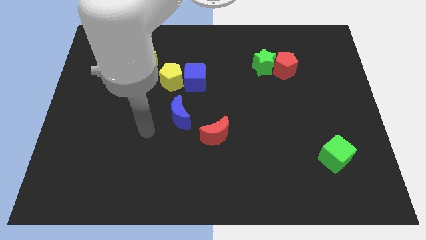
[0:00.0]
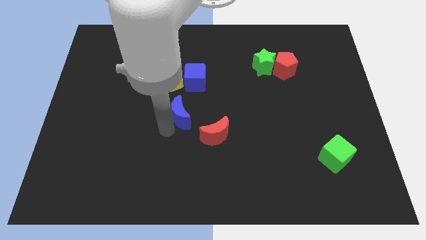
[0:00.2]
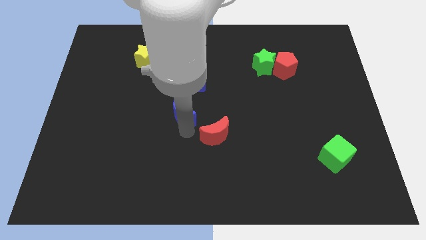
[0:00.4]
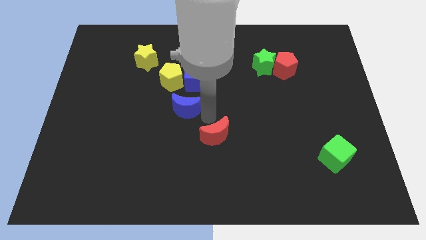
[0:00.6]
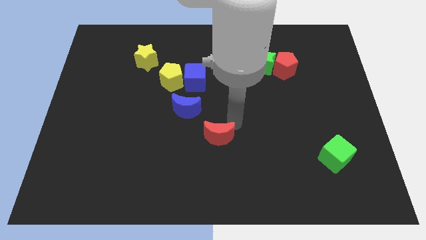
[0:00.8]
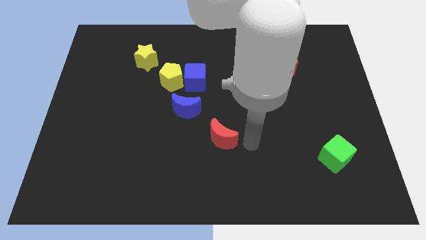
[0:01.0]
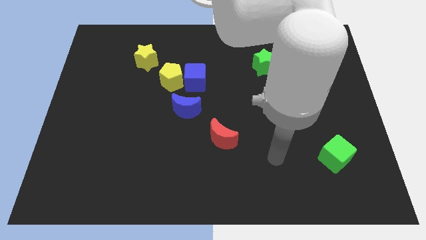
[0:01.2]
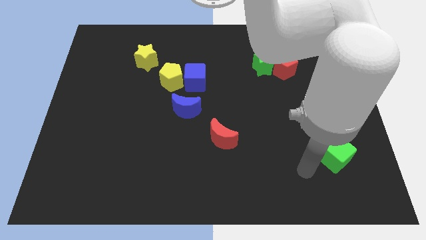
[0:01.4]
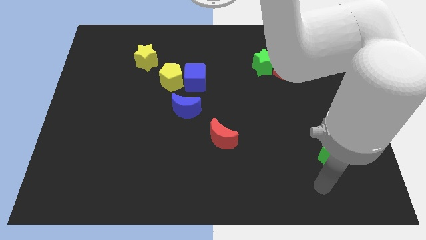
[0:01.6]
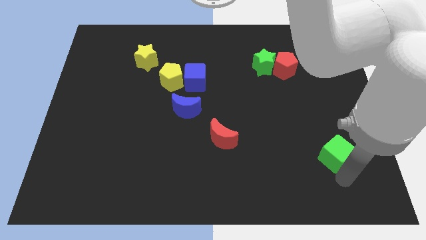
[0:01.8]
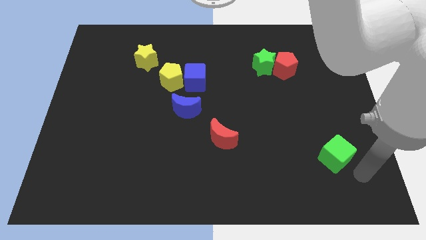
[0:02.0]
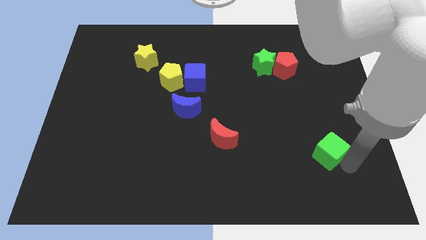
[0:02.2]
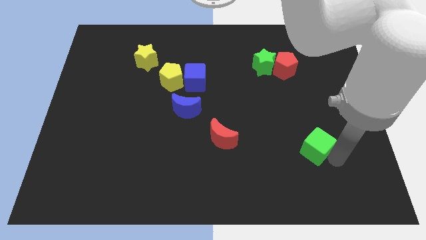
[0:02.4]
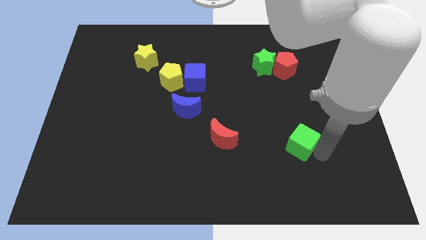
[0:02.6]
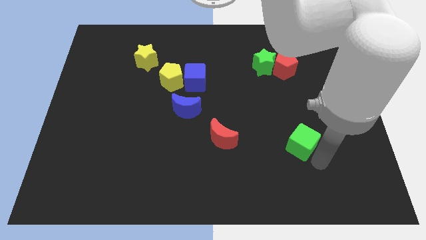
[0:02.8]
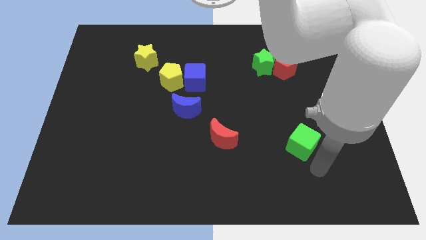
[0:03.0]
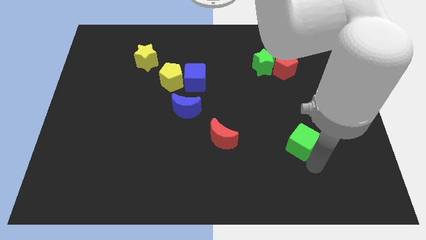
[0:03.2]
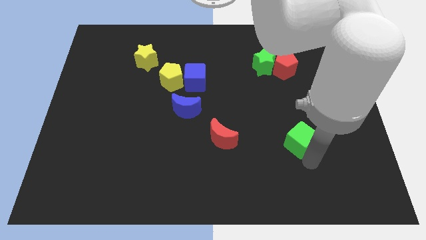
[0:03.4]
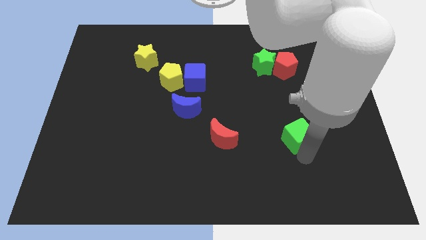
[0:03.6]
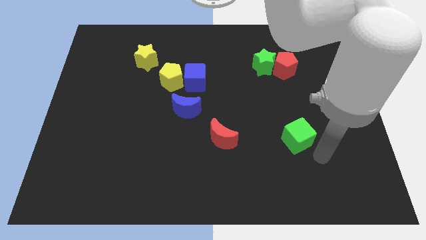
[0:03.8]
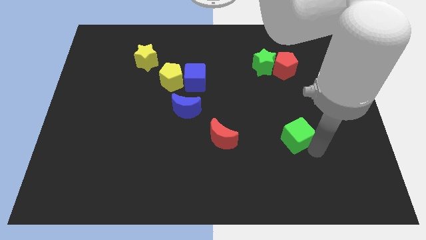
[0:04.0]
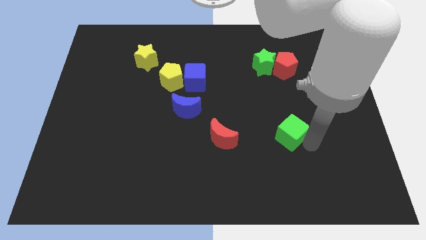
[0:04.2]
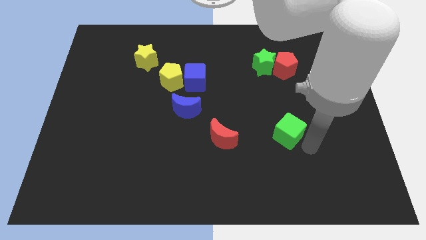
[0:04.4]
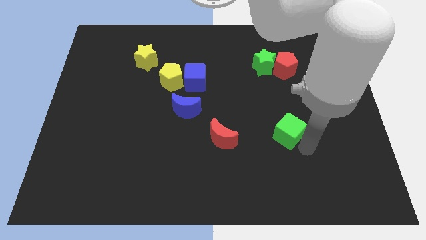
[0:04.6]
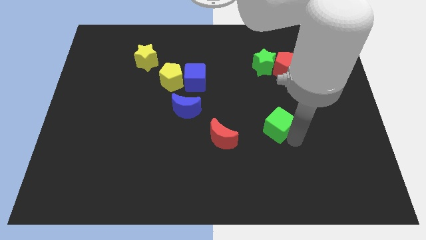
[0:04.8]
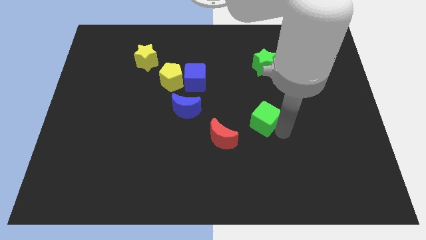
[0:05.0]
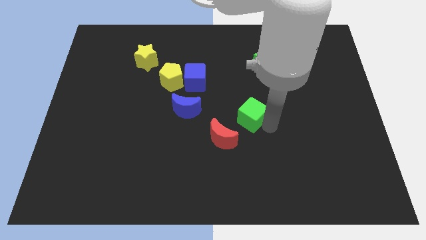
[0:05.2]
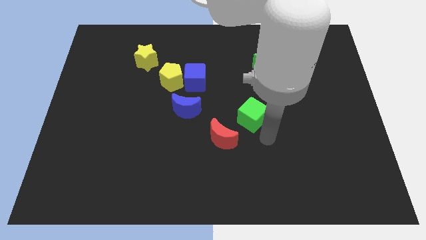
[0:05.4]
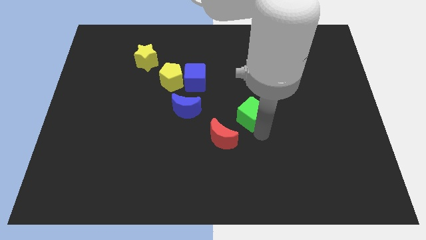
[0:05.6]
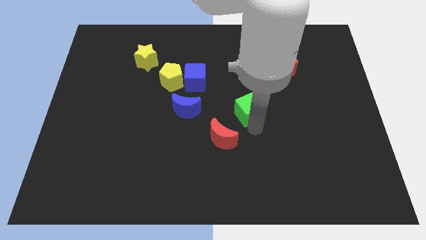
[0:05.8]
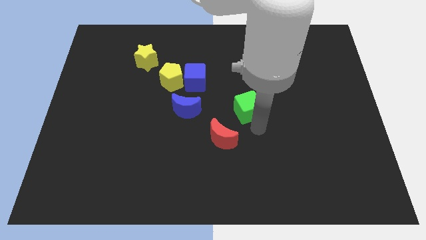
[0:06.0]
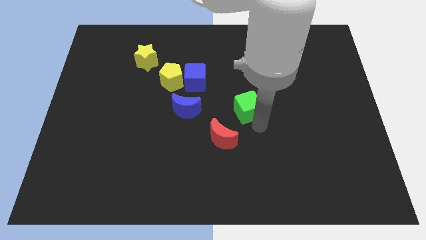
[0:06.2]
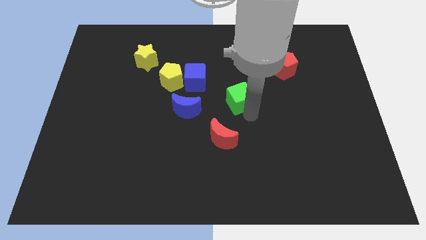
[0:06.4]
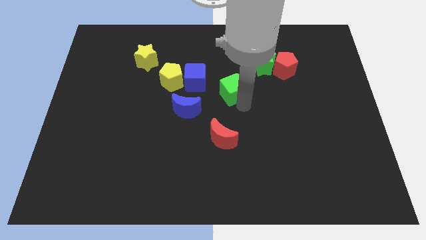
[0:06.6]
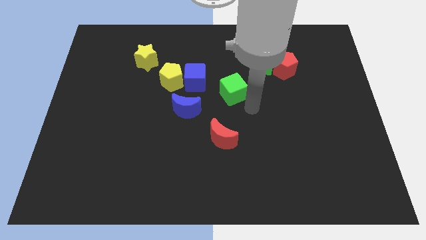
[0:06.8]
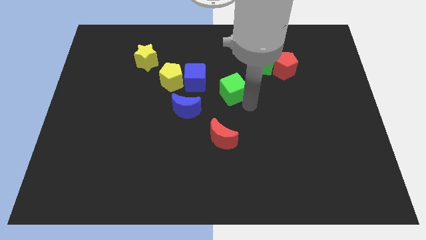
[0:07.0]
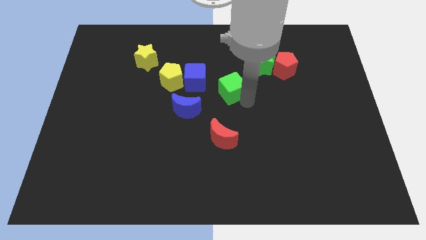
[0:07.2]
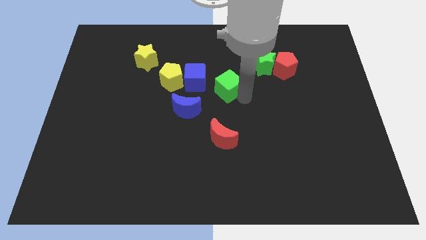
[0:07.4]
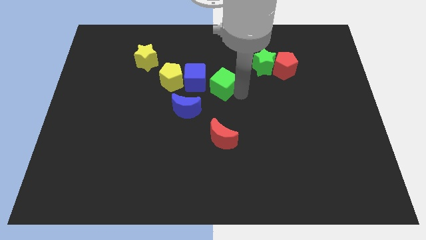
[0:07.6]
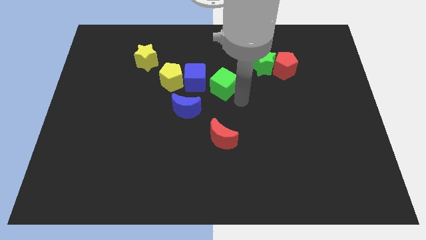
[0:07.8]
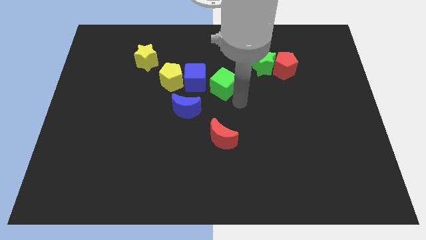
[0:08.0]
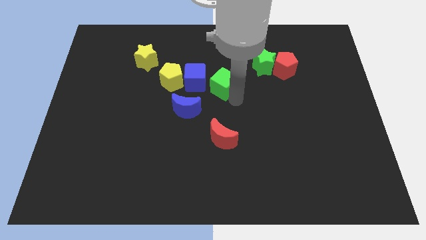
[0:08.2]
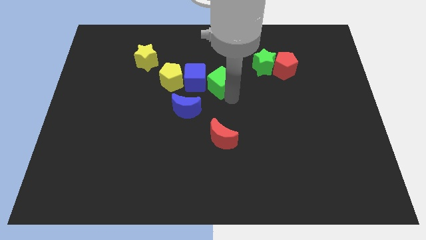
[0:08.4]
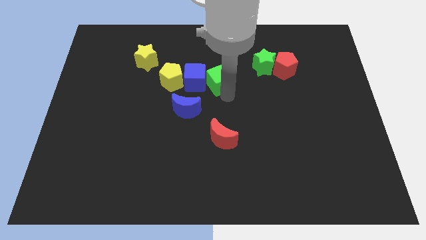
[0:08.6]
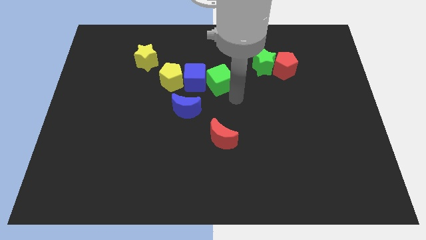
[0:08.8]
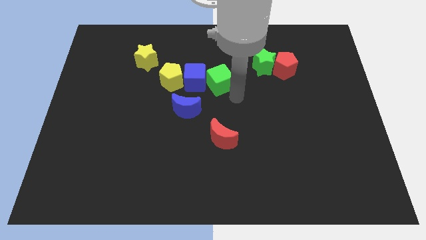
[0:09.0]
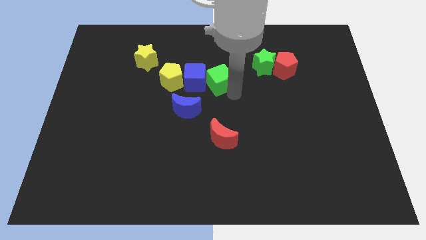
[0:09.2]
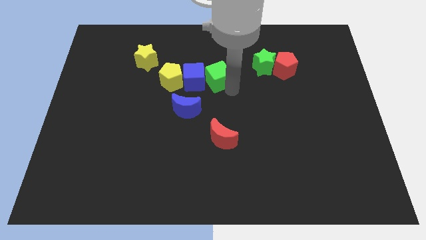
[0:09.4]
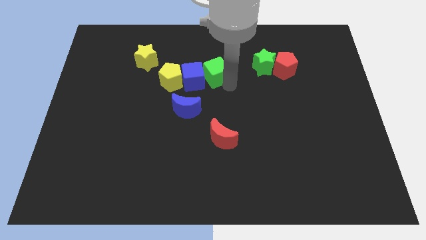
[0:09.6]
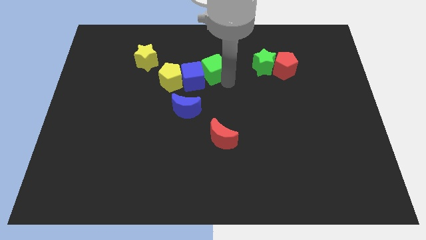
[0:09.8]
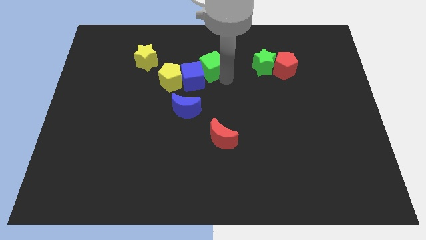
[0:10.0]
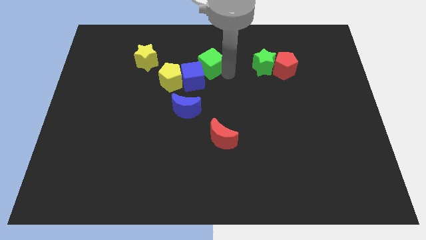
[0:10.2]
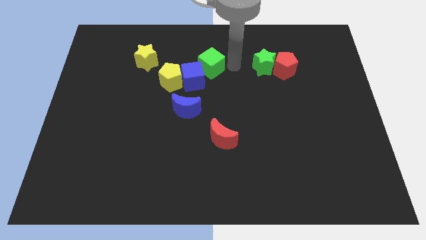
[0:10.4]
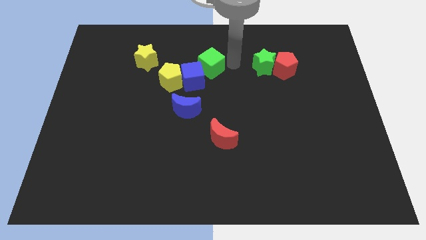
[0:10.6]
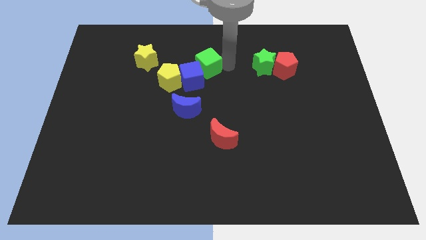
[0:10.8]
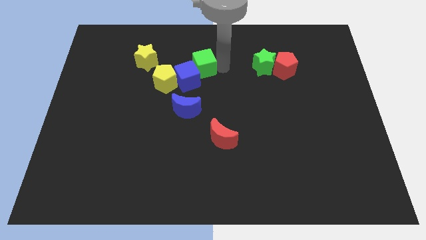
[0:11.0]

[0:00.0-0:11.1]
put the green cube above the blue moon

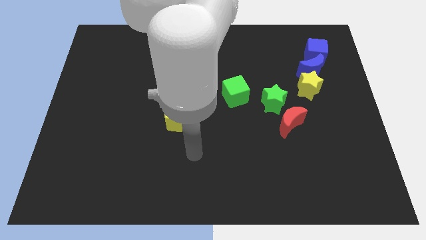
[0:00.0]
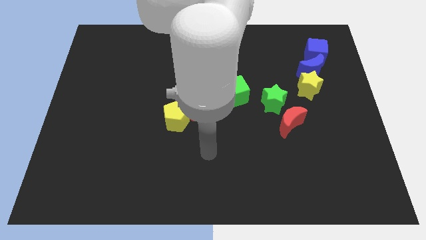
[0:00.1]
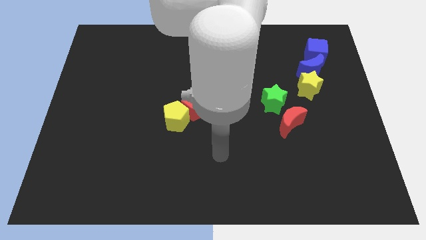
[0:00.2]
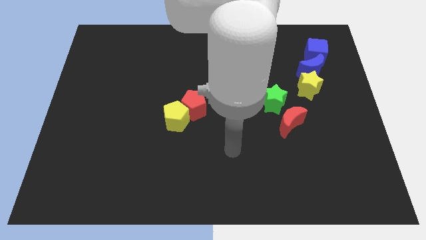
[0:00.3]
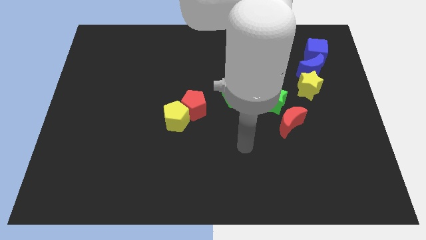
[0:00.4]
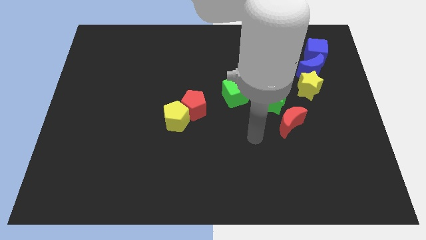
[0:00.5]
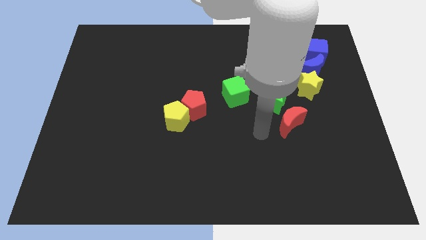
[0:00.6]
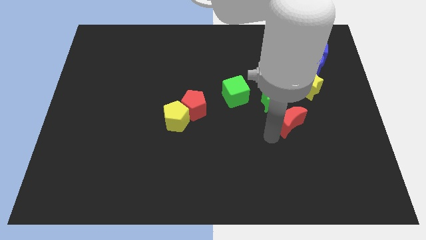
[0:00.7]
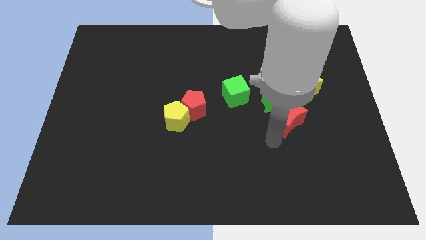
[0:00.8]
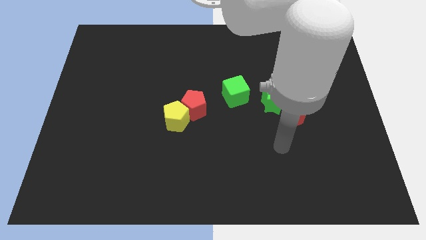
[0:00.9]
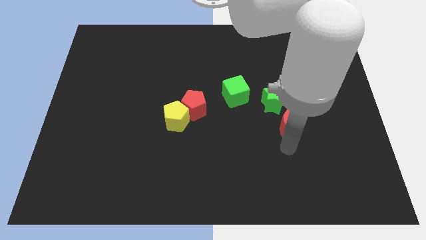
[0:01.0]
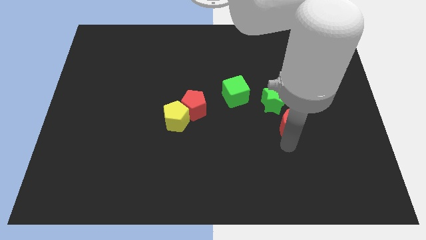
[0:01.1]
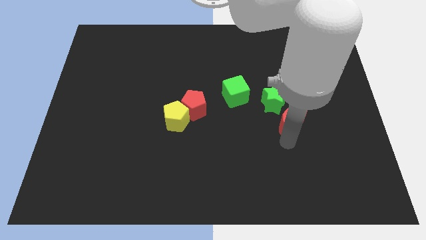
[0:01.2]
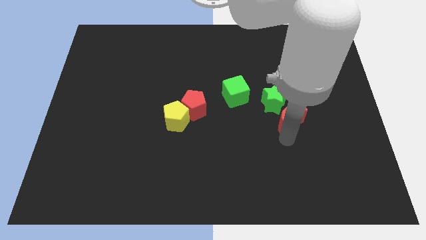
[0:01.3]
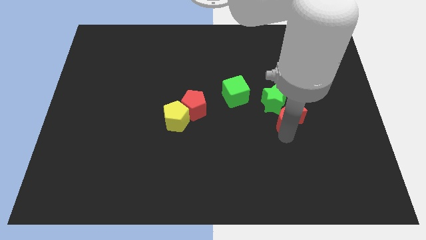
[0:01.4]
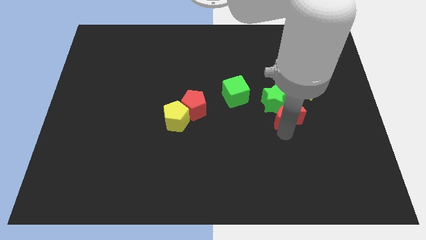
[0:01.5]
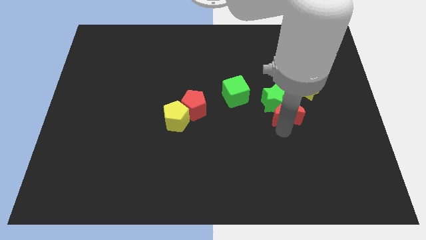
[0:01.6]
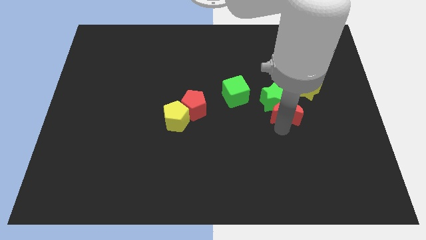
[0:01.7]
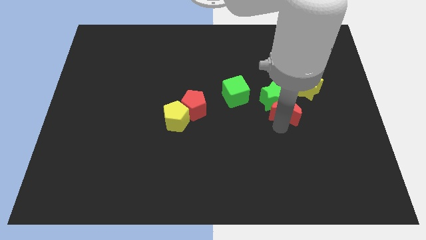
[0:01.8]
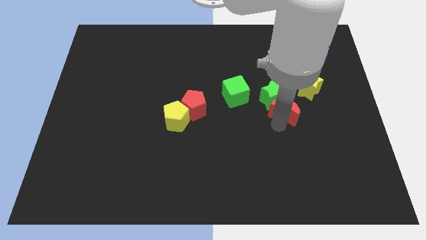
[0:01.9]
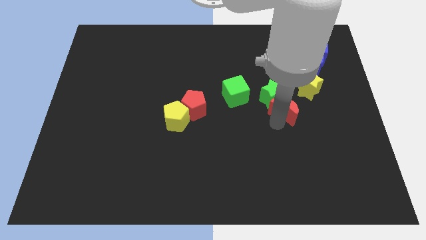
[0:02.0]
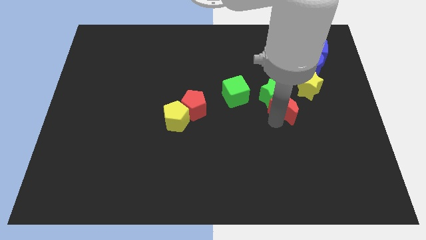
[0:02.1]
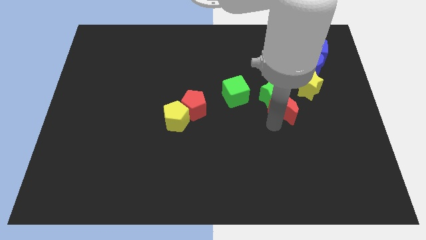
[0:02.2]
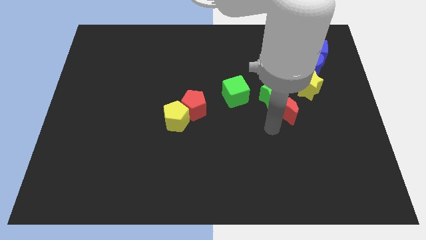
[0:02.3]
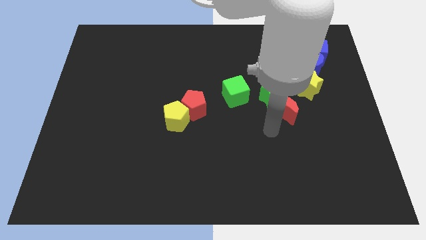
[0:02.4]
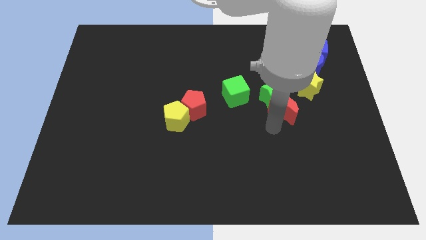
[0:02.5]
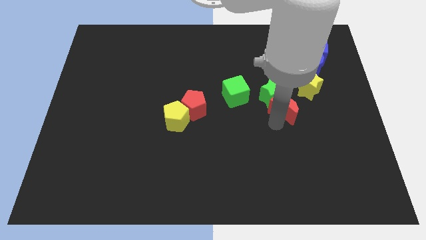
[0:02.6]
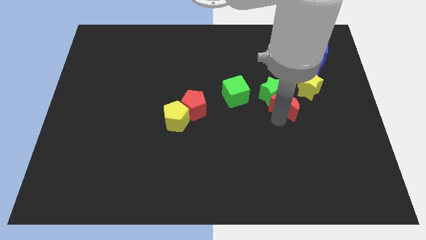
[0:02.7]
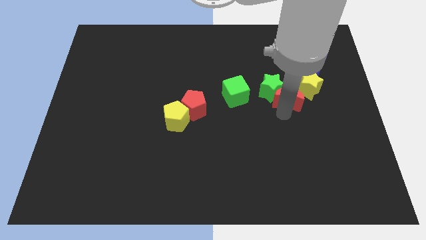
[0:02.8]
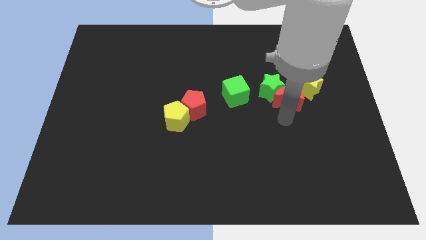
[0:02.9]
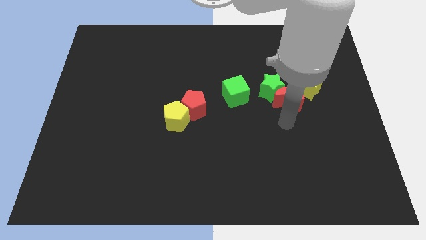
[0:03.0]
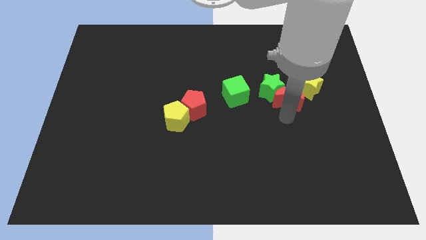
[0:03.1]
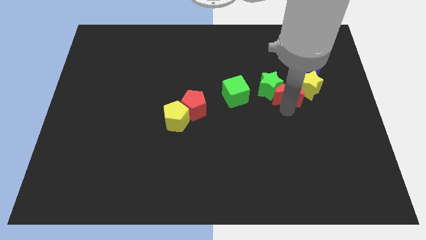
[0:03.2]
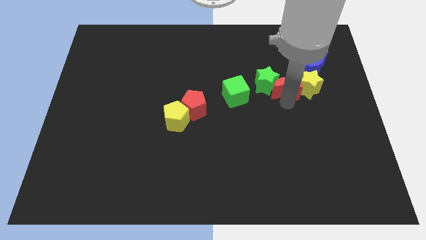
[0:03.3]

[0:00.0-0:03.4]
slide the red moon diagonally up and to the right of the green star
